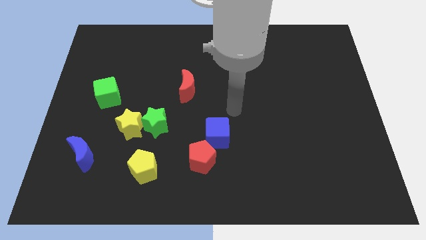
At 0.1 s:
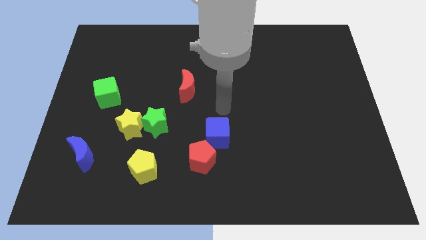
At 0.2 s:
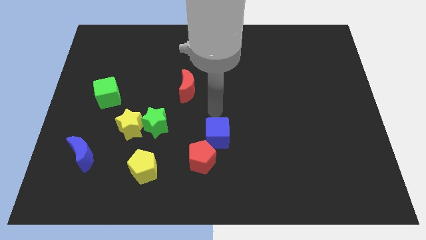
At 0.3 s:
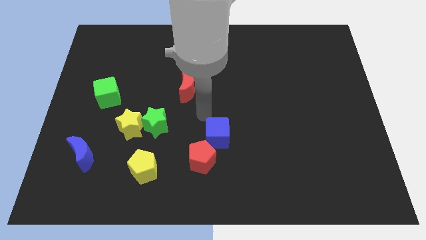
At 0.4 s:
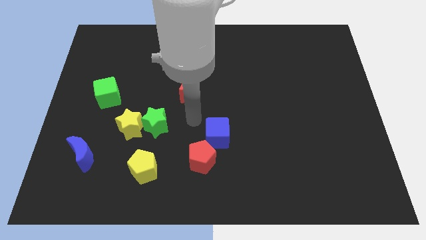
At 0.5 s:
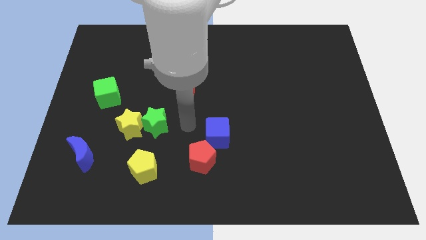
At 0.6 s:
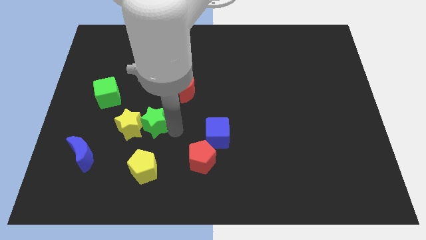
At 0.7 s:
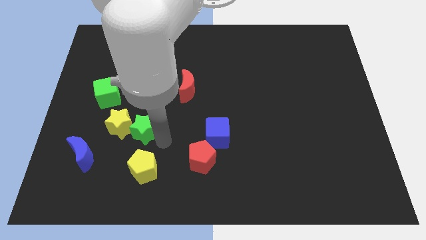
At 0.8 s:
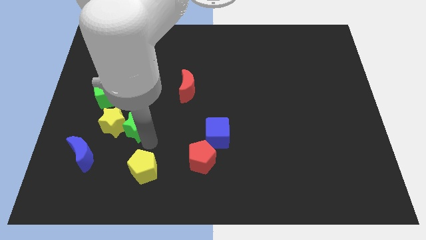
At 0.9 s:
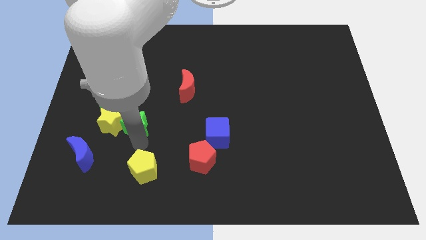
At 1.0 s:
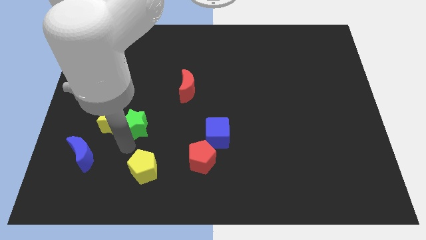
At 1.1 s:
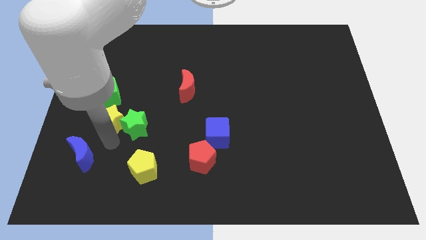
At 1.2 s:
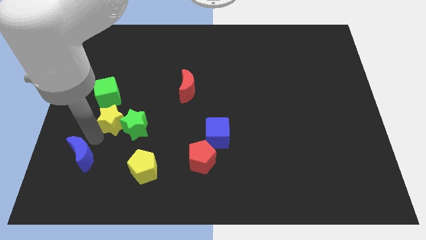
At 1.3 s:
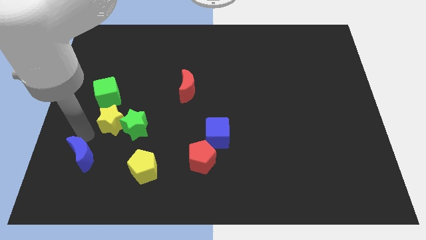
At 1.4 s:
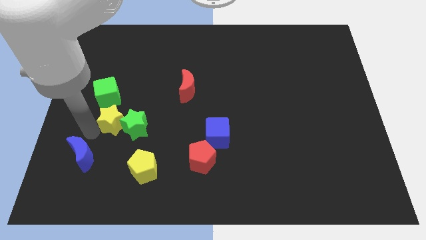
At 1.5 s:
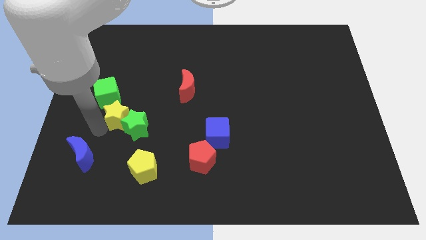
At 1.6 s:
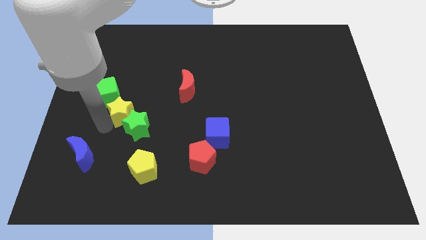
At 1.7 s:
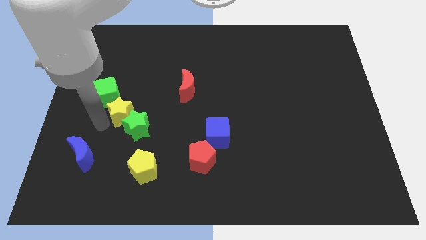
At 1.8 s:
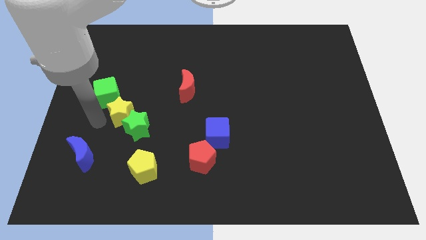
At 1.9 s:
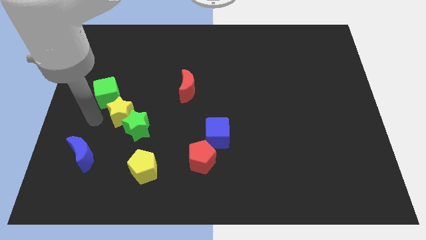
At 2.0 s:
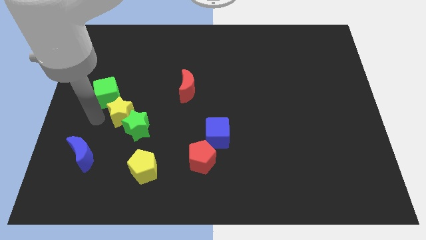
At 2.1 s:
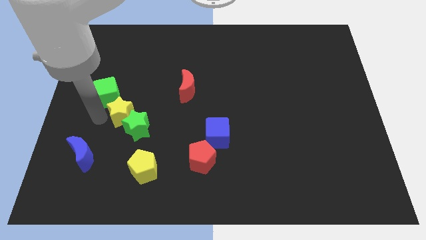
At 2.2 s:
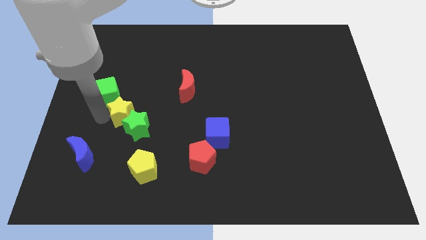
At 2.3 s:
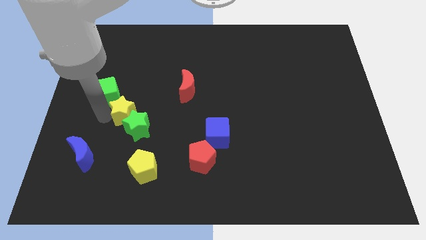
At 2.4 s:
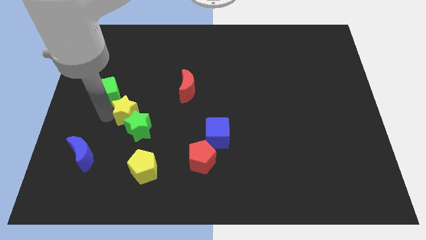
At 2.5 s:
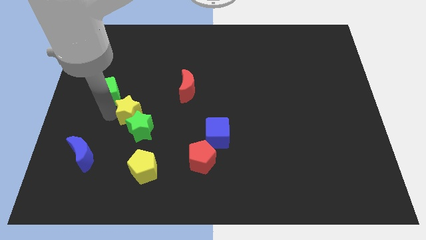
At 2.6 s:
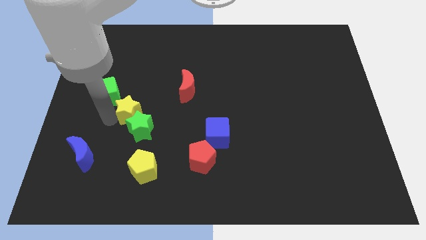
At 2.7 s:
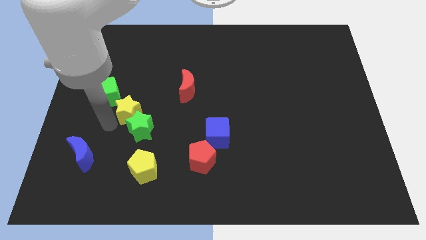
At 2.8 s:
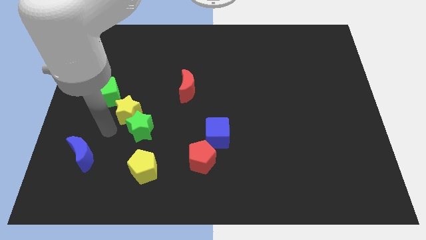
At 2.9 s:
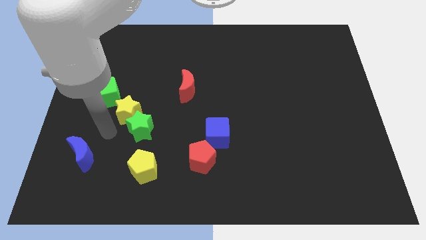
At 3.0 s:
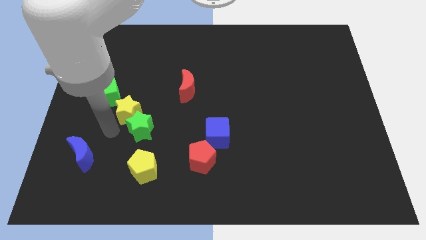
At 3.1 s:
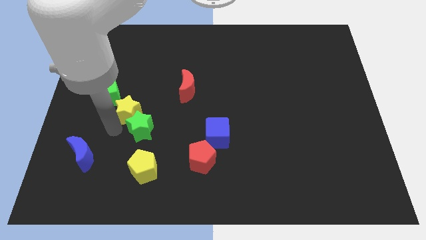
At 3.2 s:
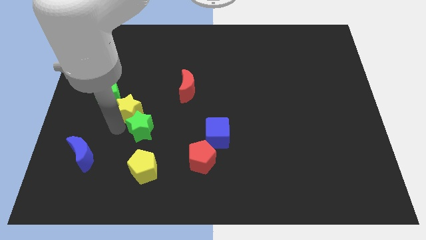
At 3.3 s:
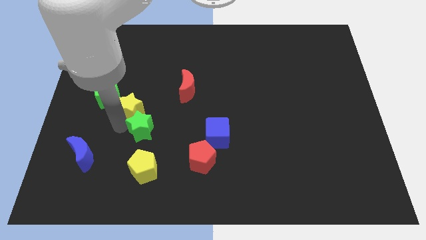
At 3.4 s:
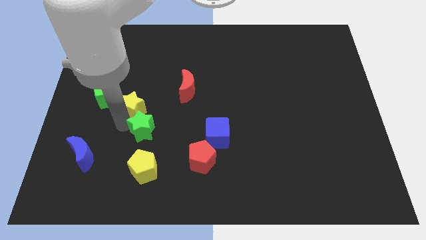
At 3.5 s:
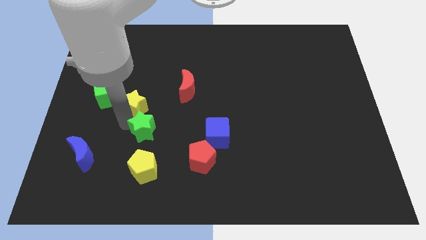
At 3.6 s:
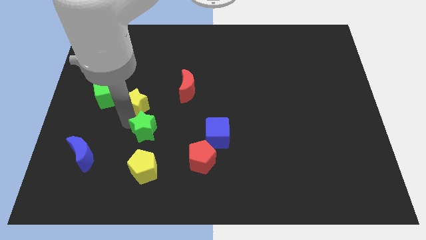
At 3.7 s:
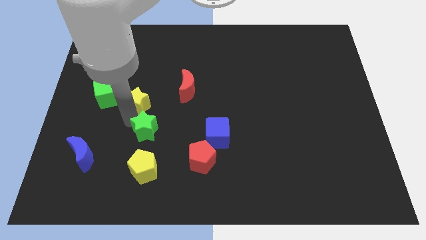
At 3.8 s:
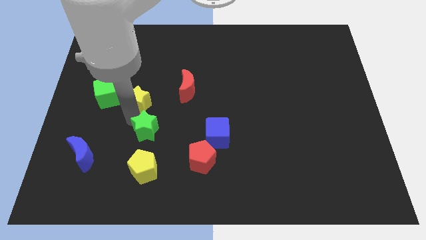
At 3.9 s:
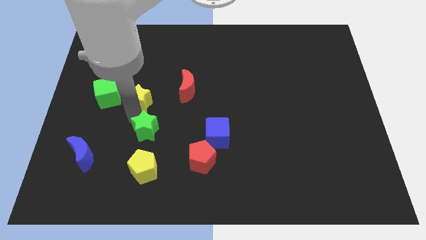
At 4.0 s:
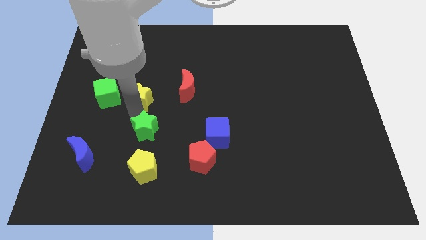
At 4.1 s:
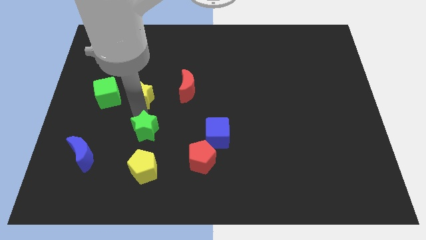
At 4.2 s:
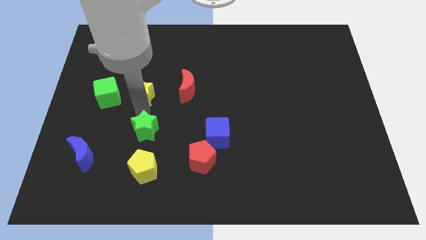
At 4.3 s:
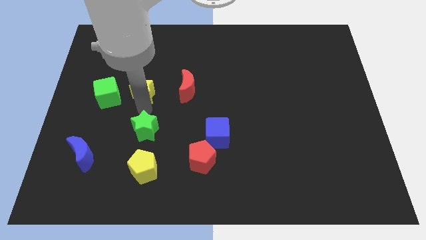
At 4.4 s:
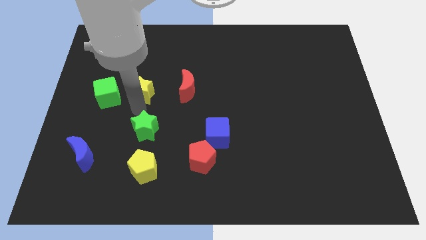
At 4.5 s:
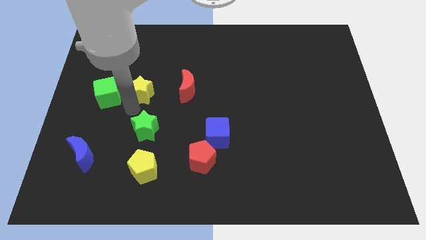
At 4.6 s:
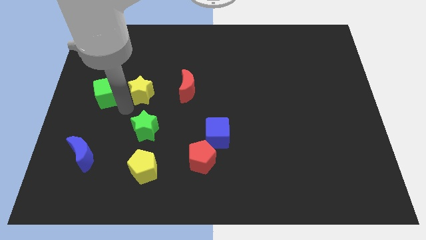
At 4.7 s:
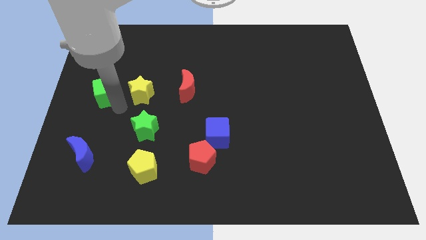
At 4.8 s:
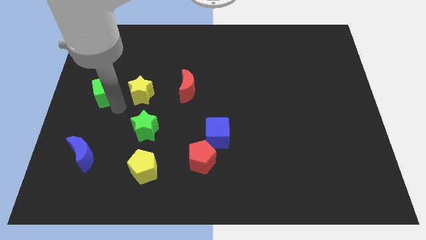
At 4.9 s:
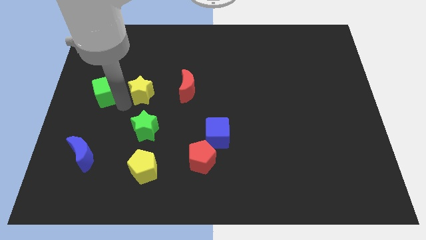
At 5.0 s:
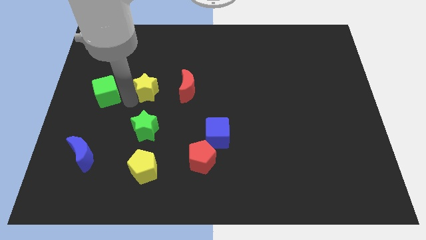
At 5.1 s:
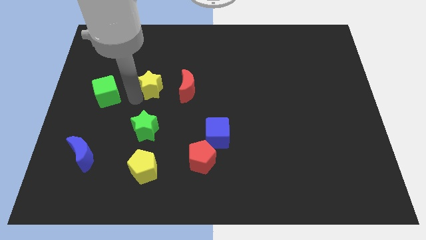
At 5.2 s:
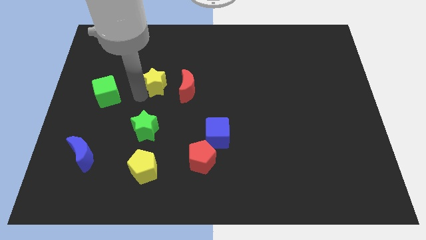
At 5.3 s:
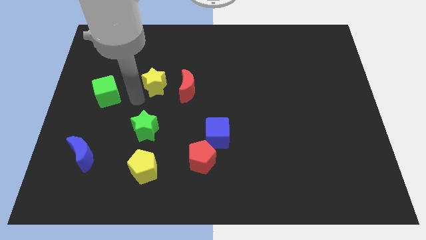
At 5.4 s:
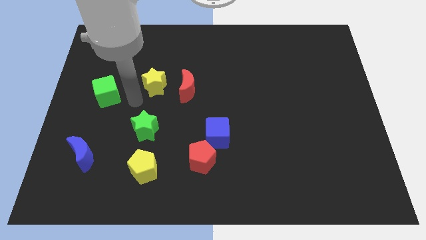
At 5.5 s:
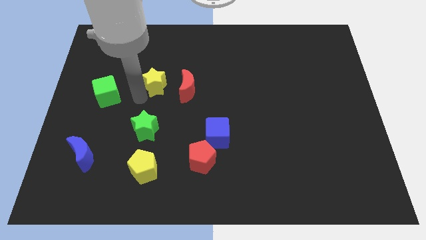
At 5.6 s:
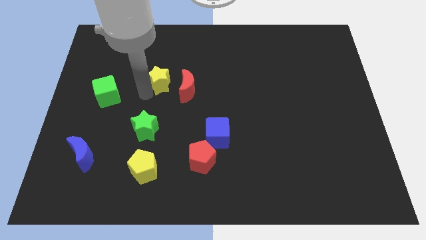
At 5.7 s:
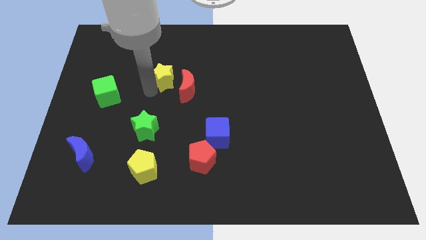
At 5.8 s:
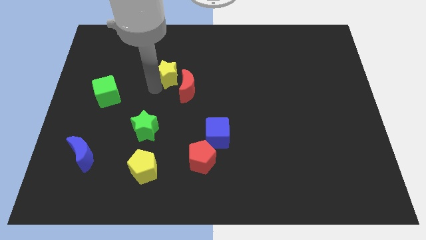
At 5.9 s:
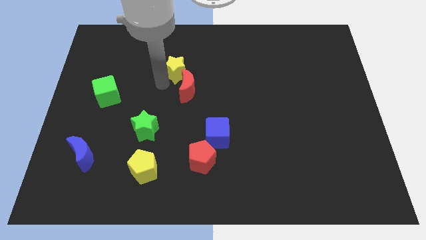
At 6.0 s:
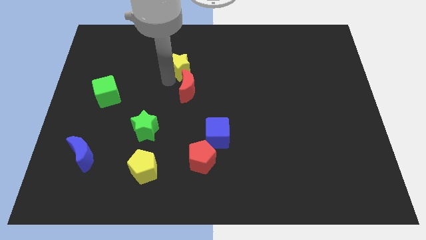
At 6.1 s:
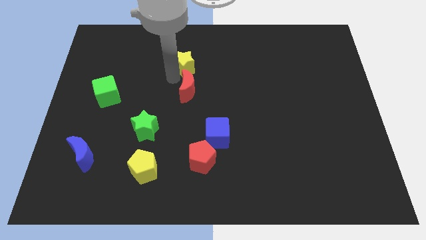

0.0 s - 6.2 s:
push the yellow star up and right

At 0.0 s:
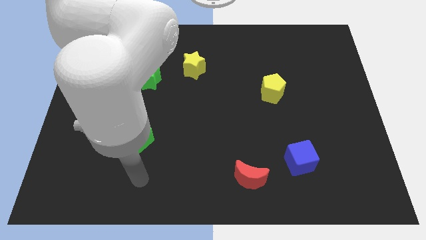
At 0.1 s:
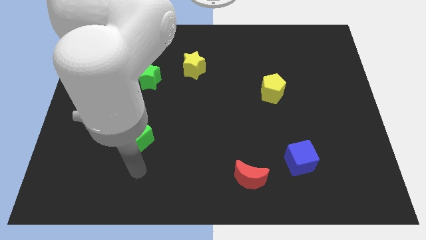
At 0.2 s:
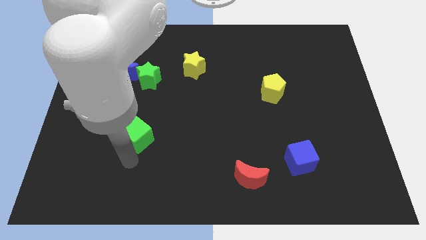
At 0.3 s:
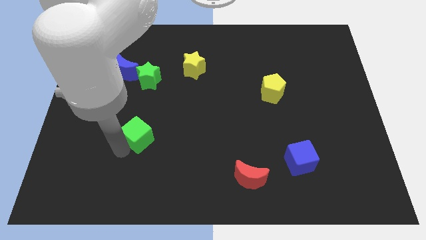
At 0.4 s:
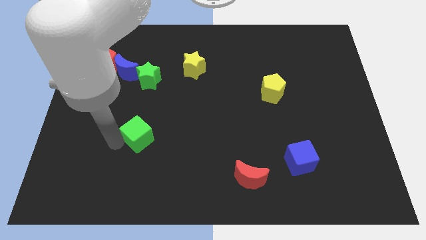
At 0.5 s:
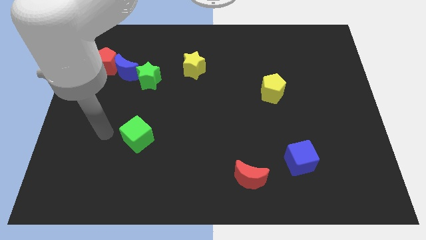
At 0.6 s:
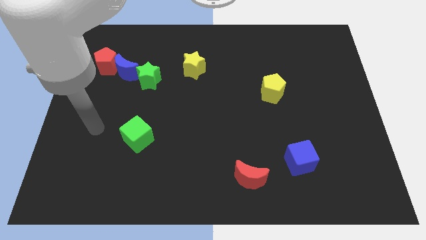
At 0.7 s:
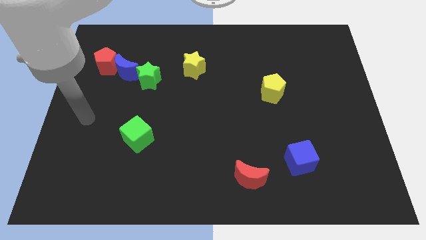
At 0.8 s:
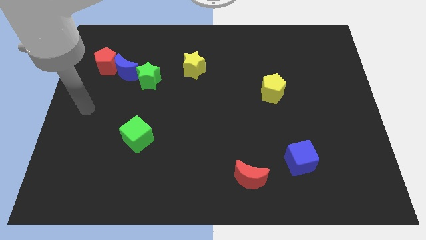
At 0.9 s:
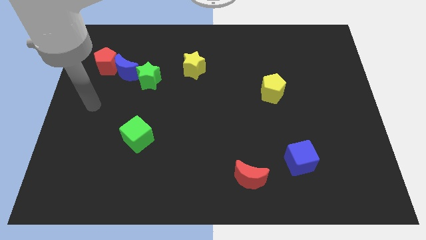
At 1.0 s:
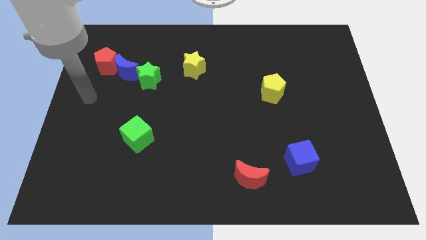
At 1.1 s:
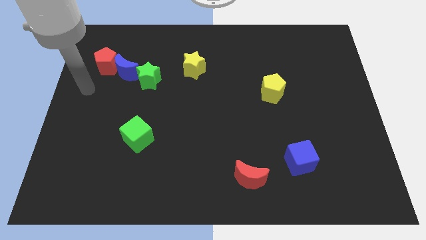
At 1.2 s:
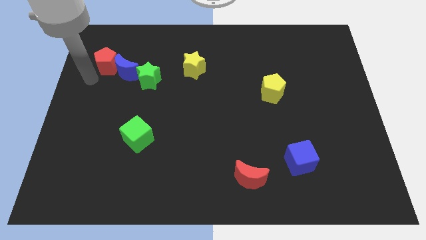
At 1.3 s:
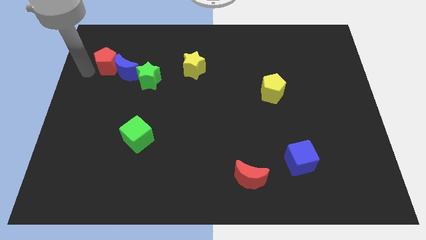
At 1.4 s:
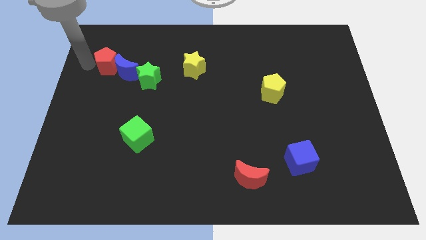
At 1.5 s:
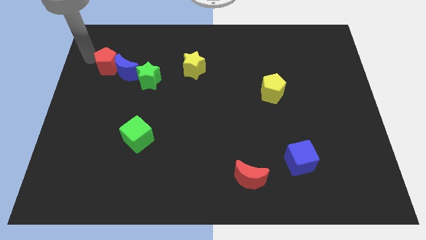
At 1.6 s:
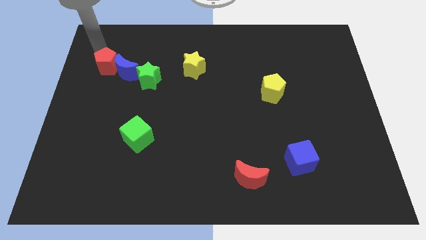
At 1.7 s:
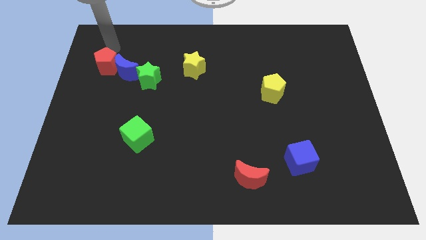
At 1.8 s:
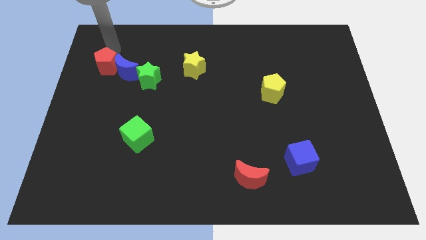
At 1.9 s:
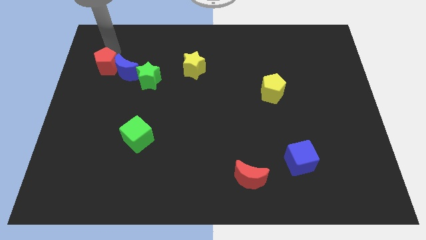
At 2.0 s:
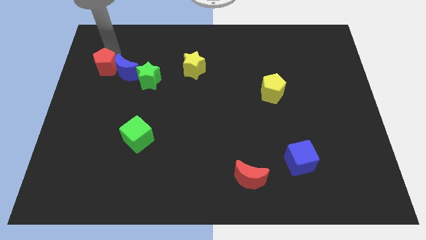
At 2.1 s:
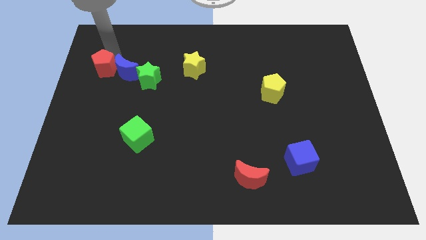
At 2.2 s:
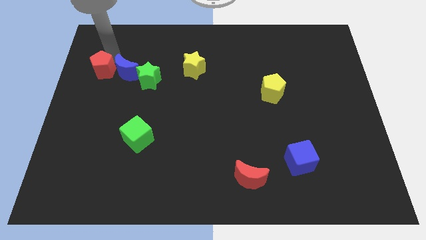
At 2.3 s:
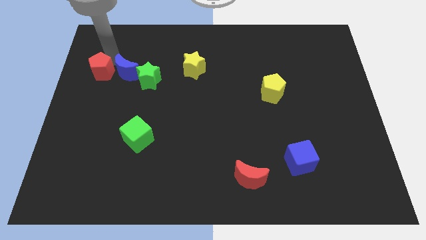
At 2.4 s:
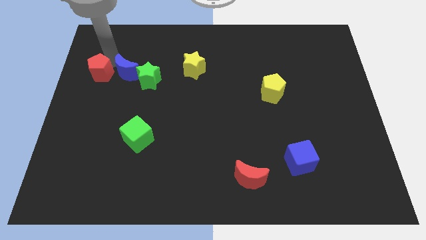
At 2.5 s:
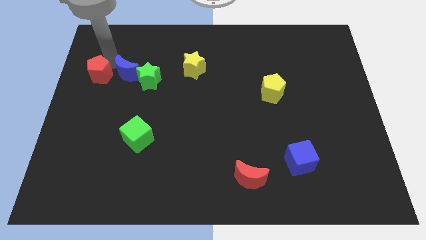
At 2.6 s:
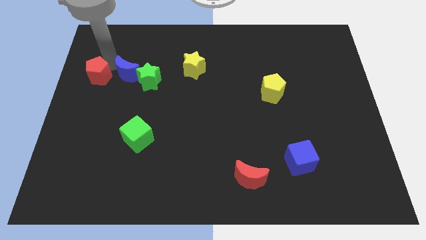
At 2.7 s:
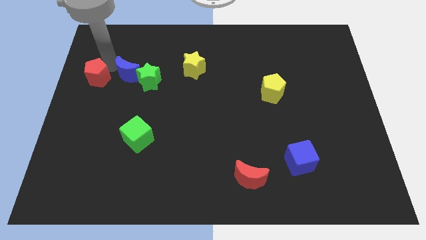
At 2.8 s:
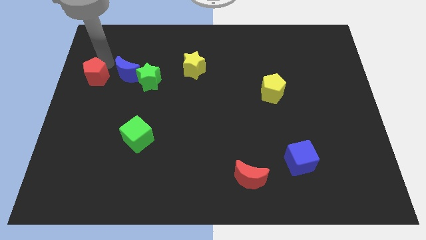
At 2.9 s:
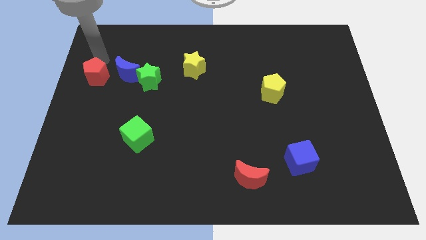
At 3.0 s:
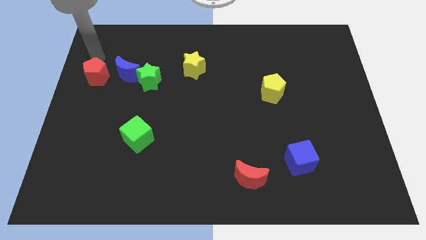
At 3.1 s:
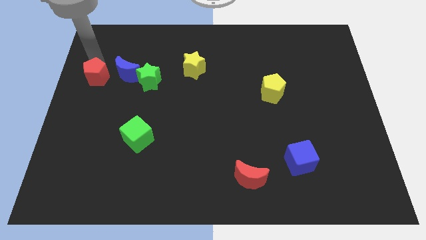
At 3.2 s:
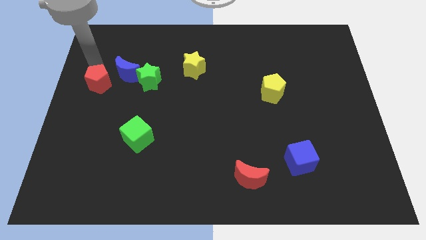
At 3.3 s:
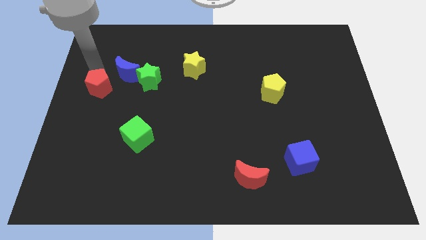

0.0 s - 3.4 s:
move the red pentagon downwards slightly
